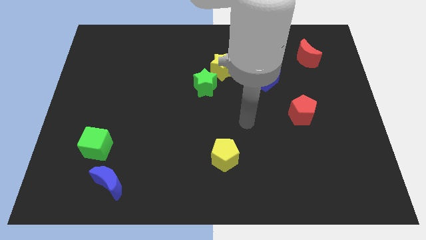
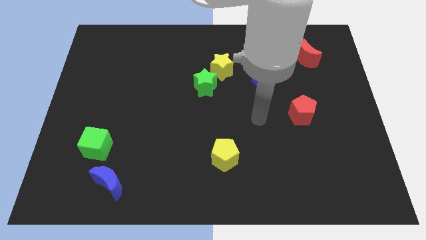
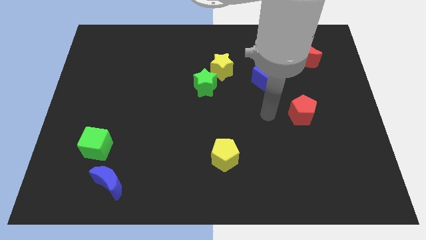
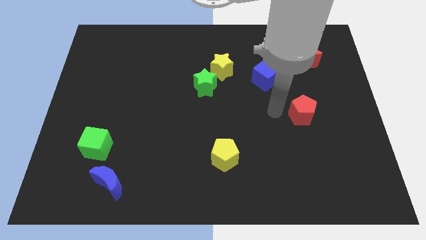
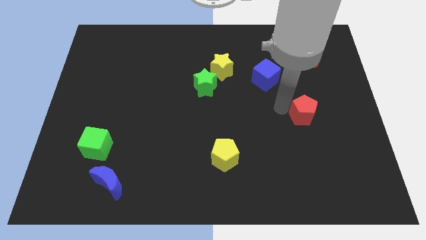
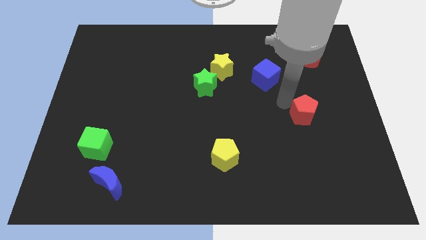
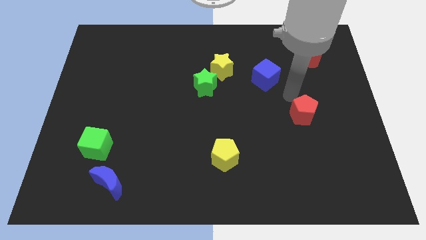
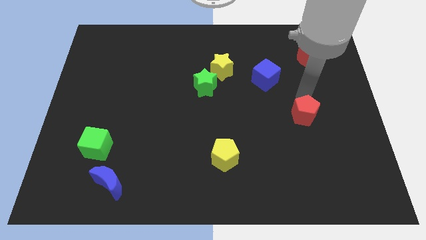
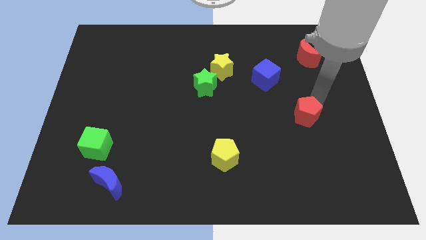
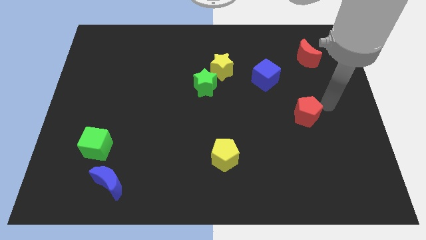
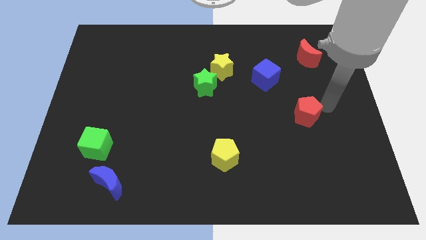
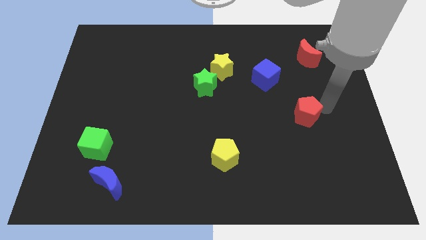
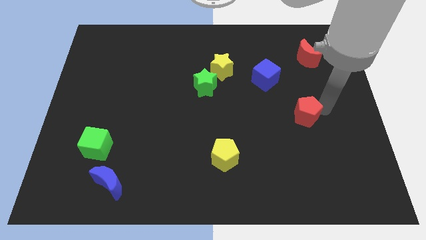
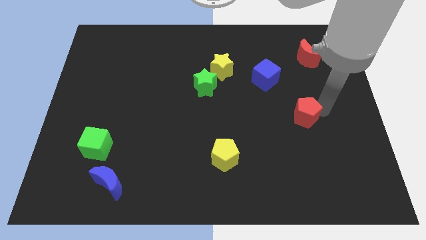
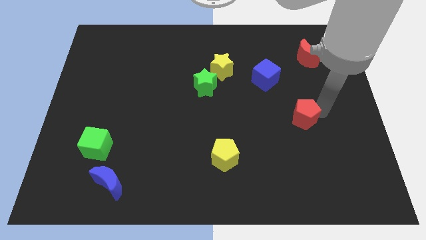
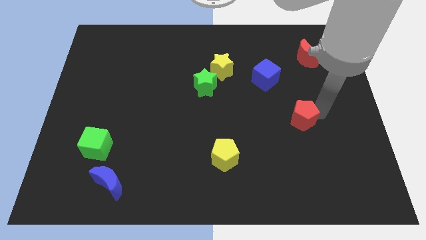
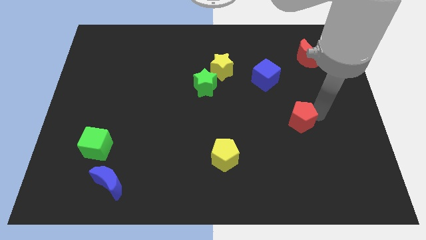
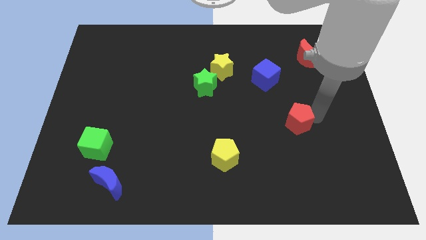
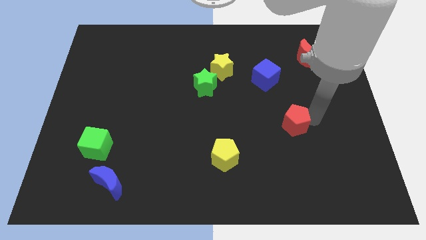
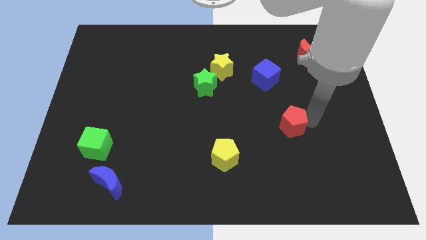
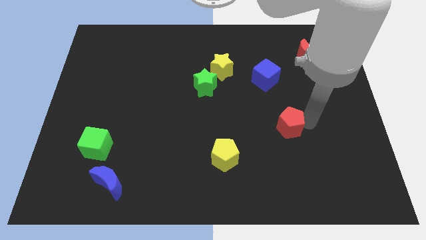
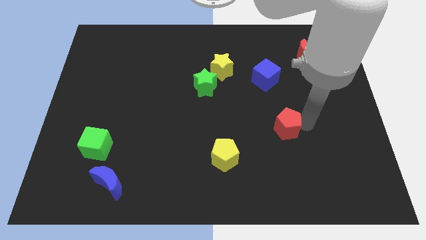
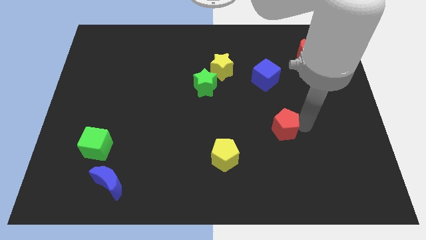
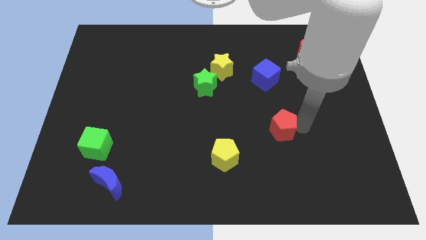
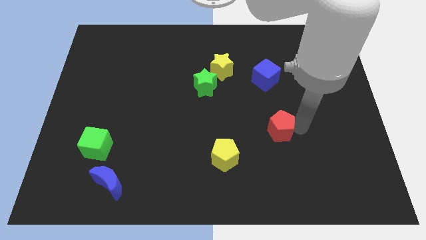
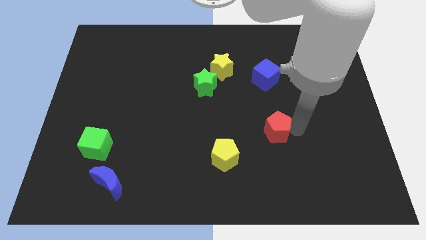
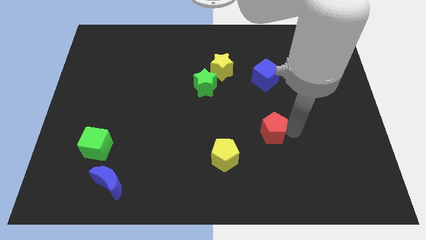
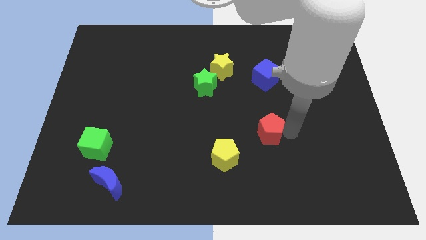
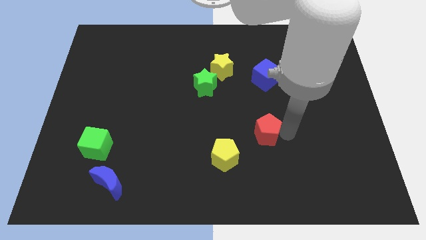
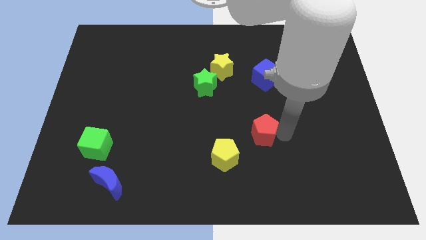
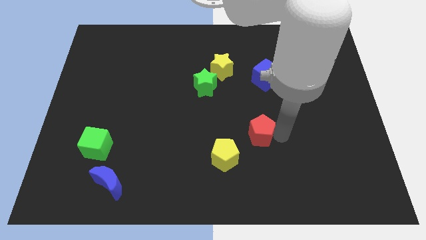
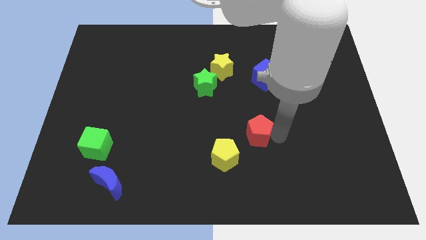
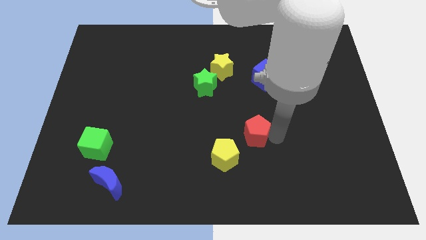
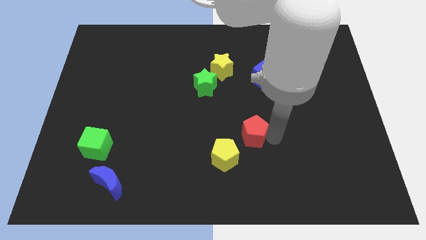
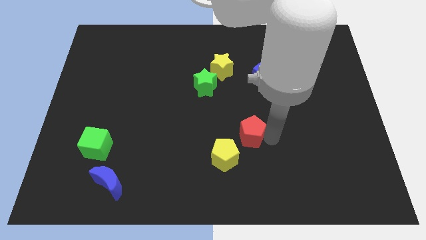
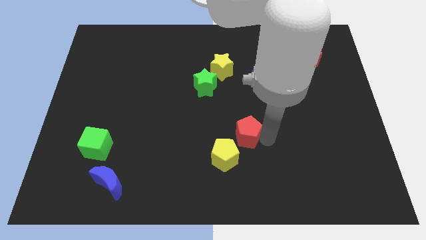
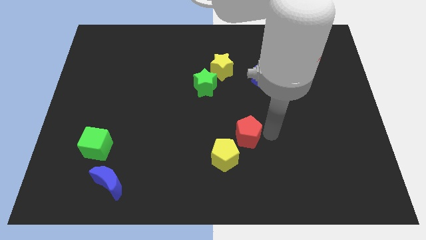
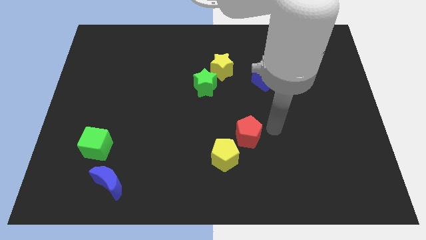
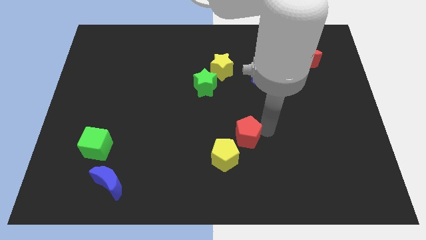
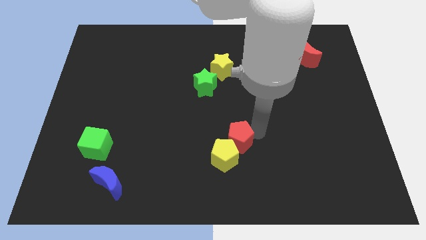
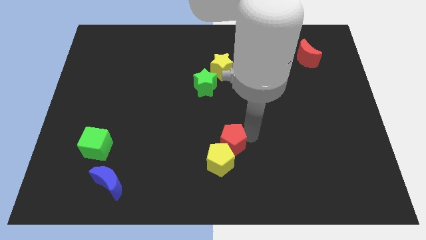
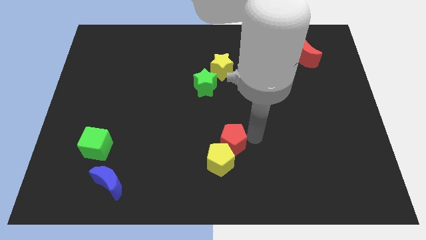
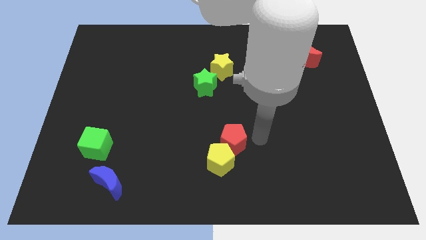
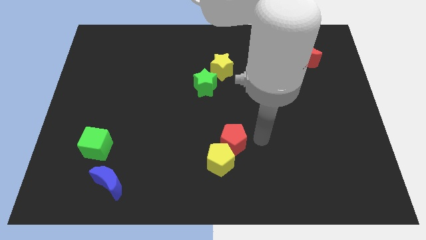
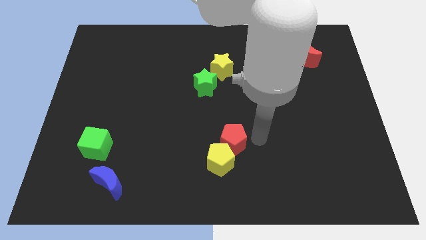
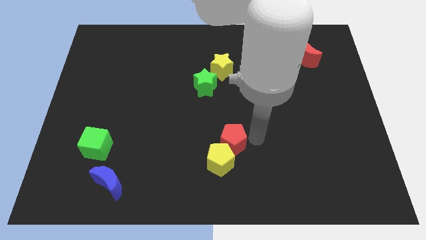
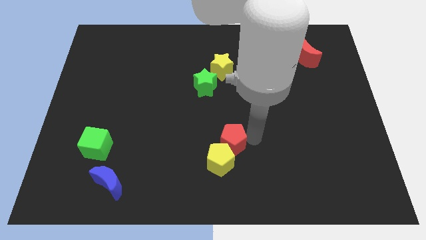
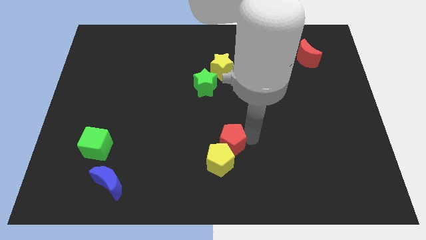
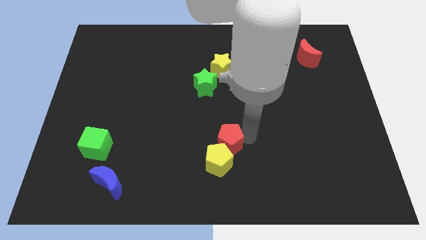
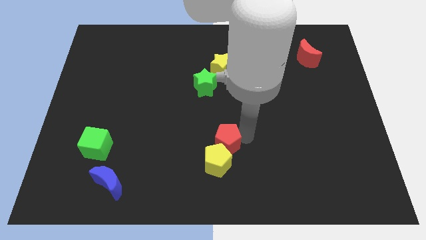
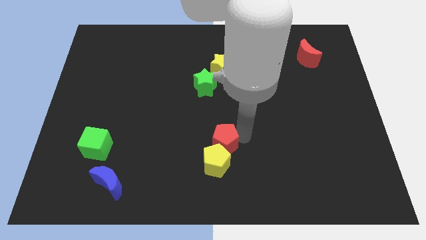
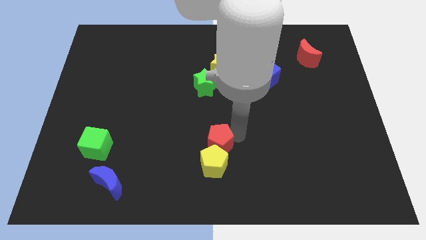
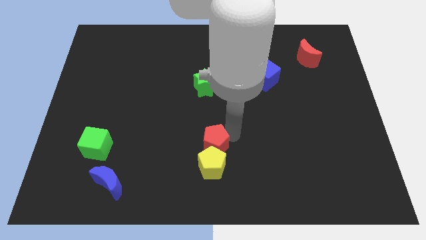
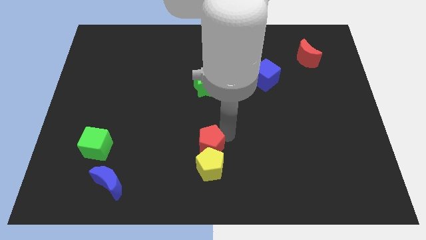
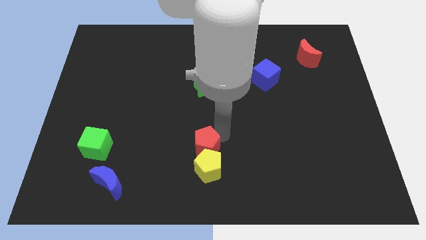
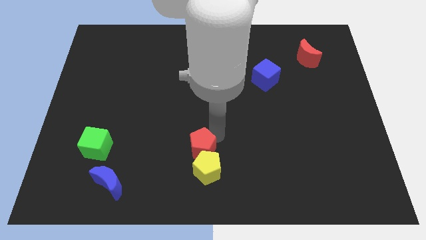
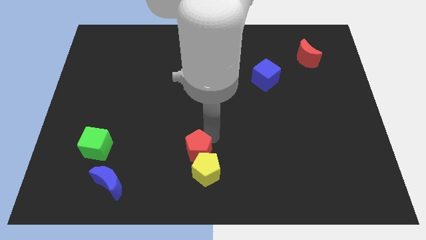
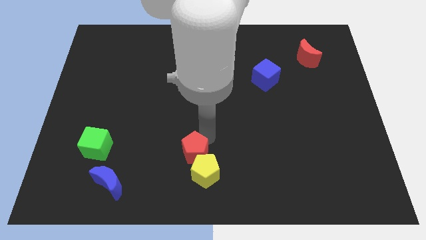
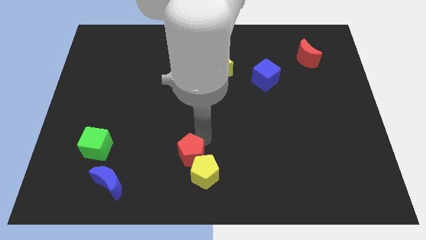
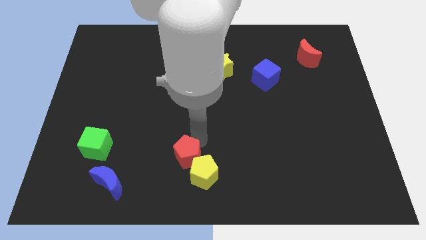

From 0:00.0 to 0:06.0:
slide the red pentagon just left of the yellow pentagon

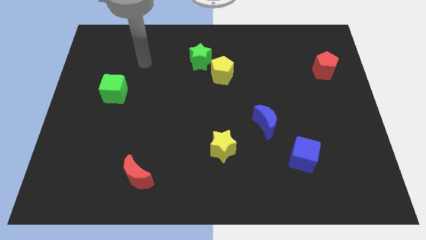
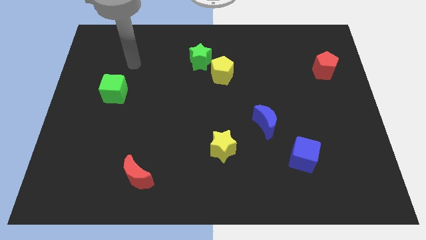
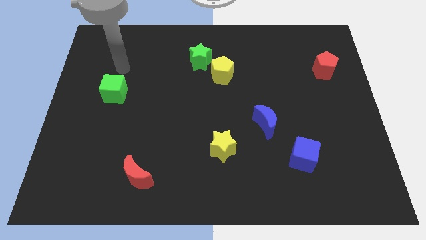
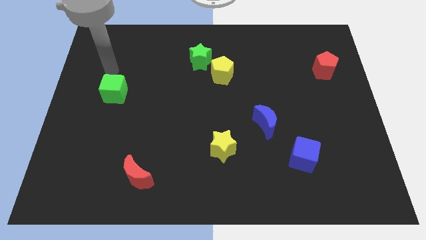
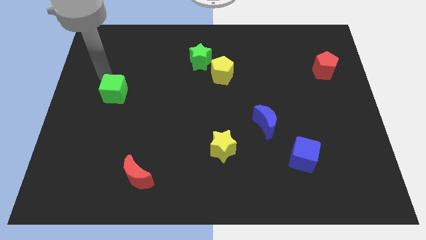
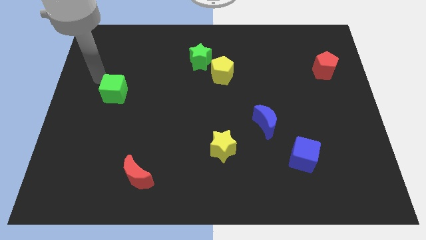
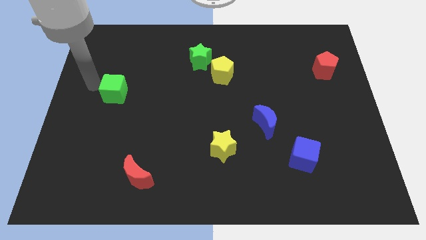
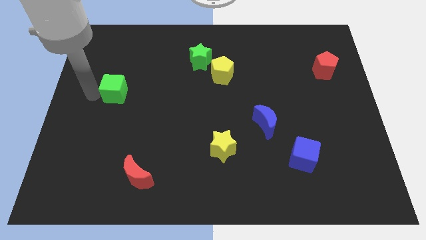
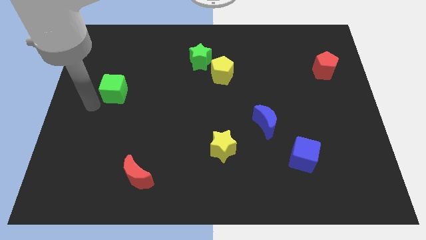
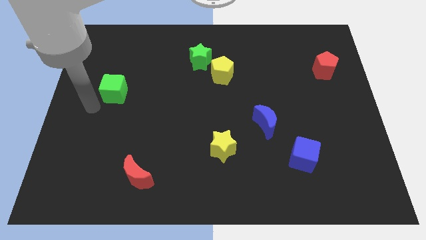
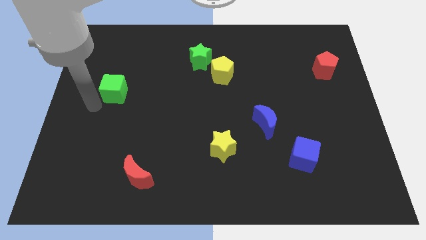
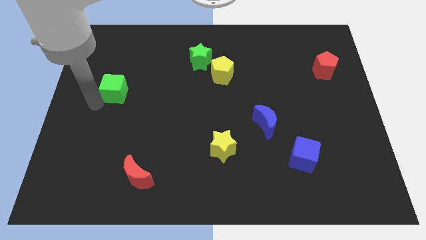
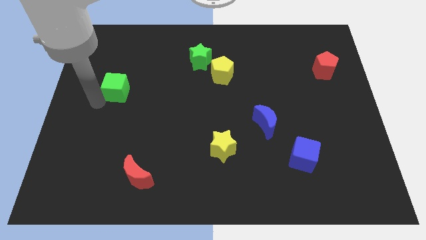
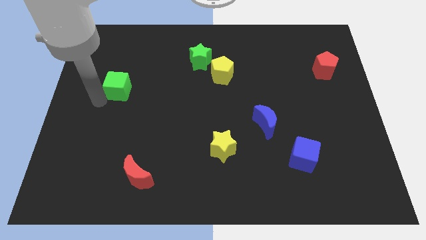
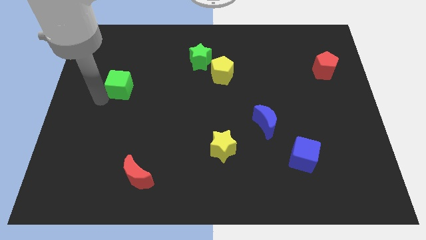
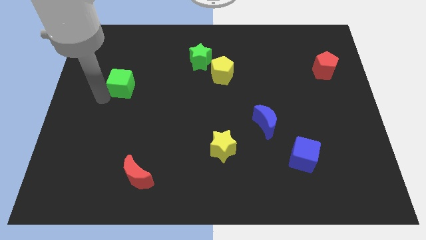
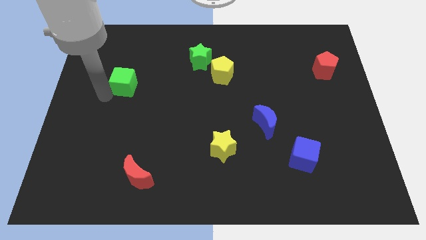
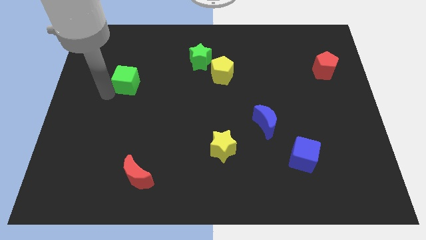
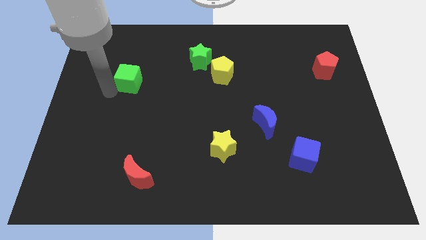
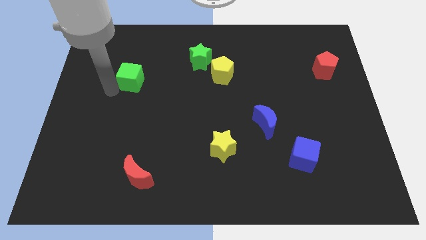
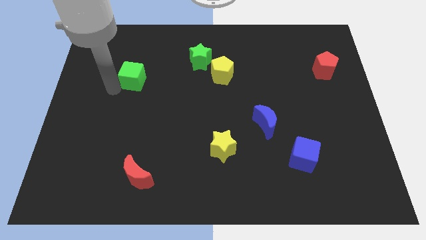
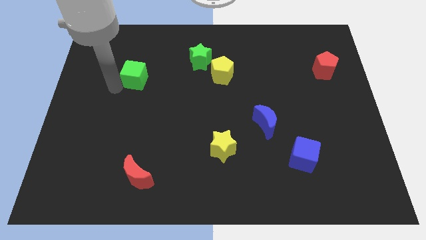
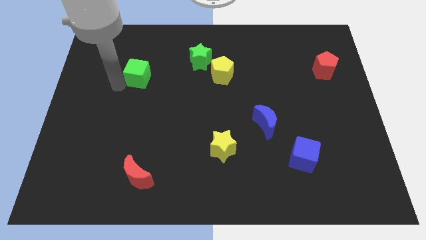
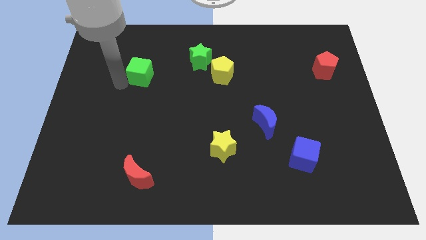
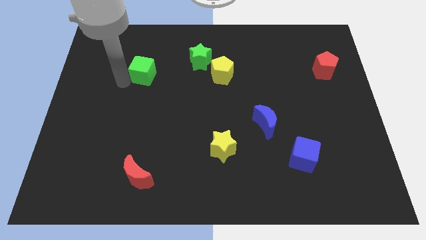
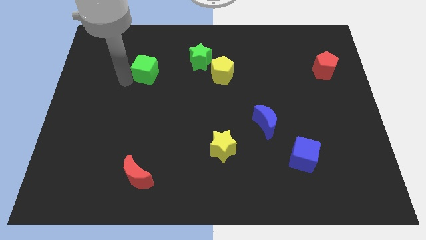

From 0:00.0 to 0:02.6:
push the green cube to the left side of the green star
